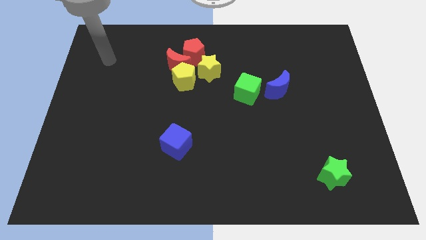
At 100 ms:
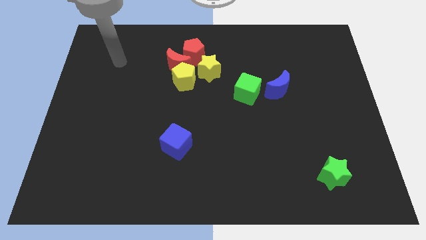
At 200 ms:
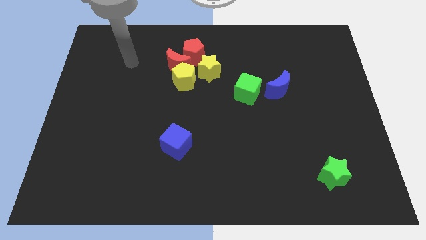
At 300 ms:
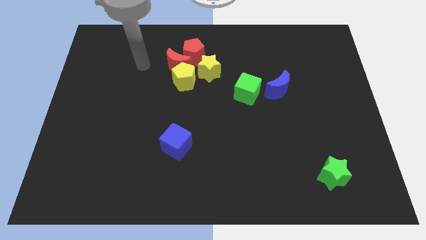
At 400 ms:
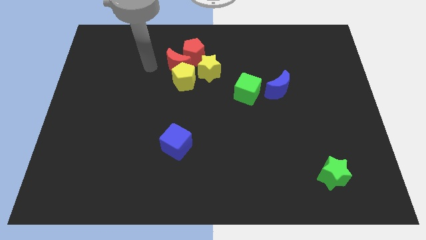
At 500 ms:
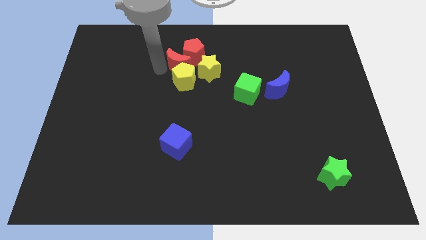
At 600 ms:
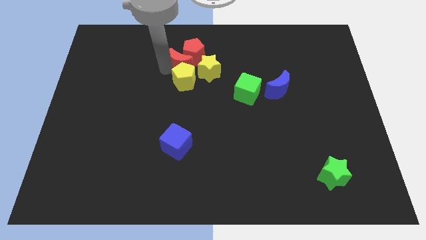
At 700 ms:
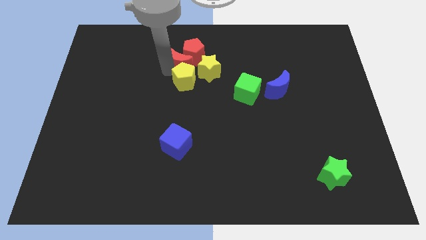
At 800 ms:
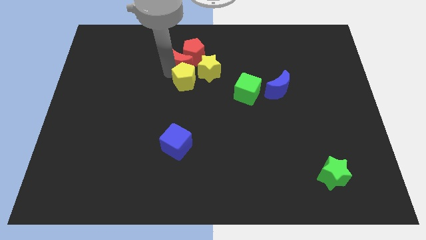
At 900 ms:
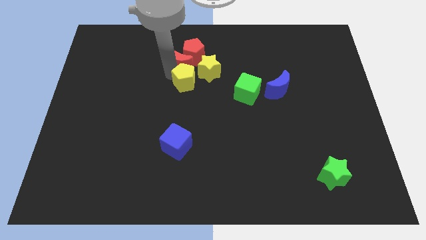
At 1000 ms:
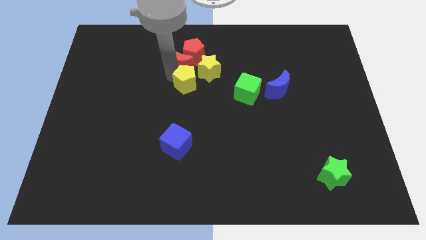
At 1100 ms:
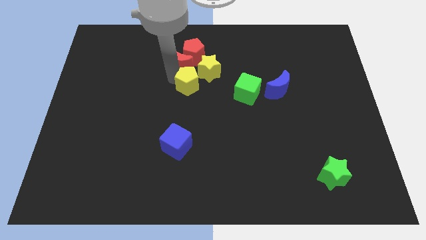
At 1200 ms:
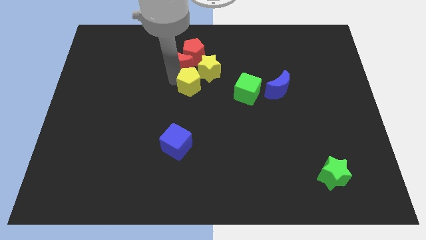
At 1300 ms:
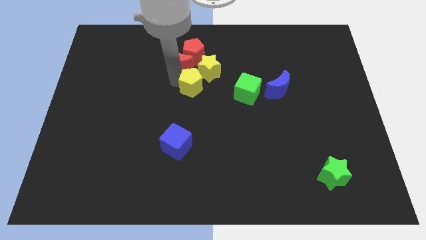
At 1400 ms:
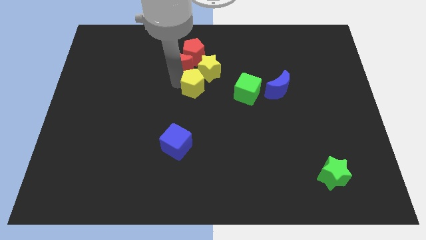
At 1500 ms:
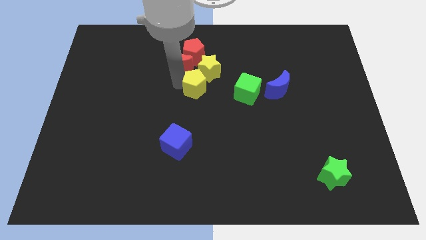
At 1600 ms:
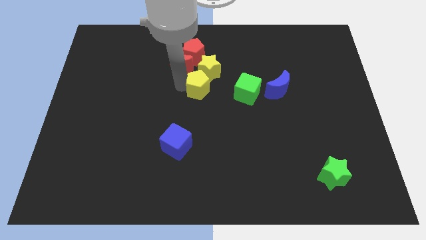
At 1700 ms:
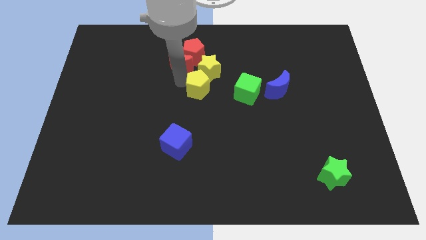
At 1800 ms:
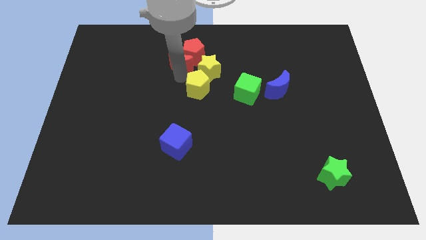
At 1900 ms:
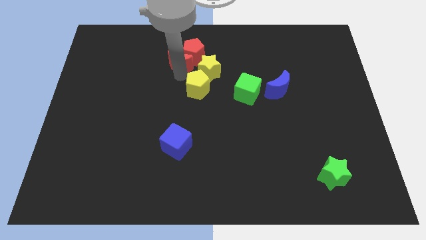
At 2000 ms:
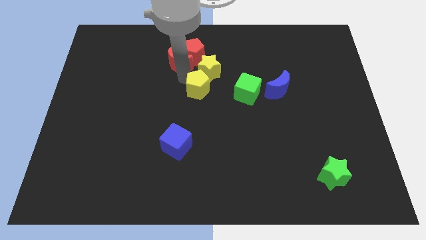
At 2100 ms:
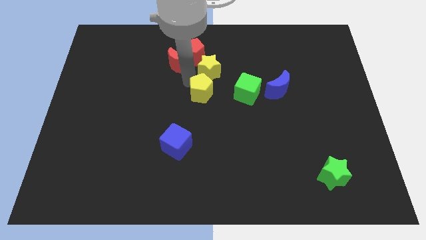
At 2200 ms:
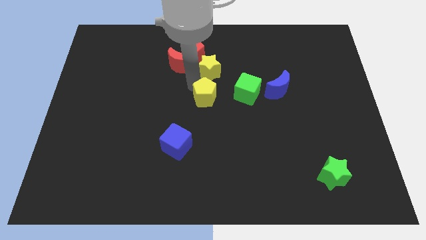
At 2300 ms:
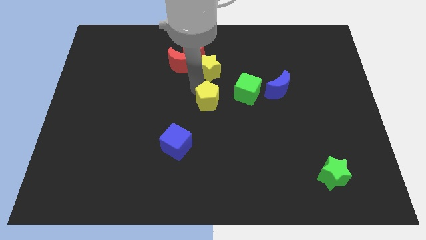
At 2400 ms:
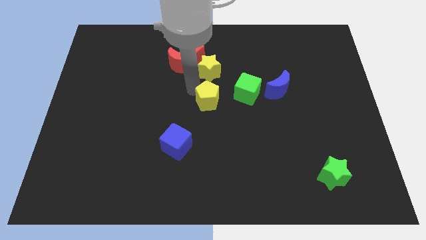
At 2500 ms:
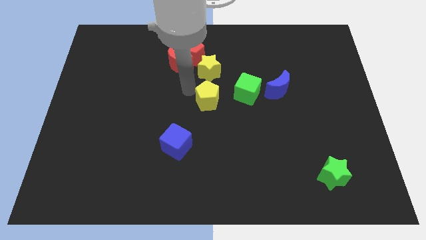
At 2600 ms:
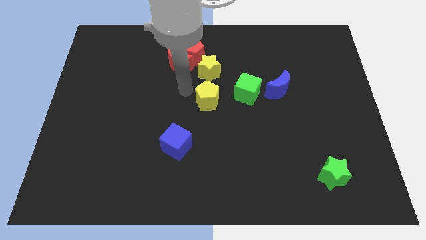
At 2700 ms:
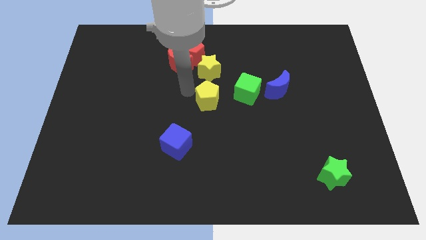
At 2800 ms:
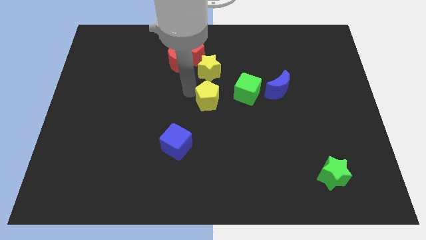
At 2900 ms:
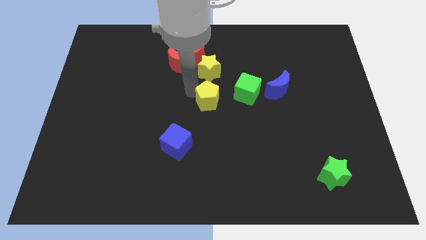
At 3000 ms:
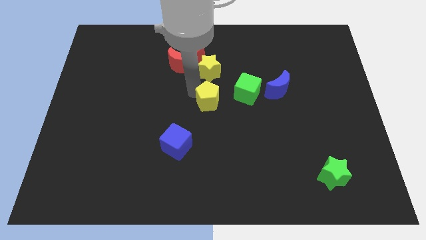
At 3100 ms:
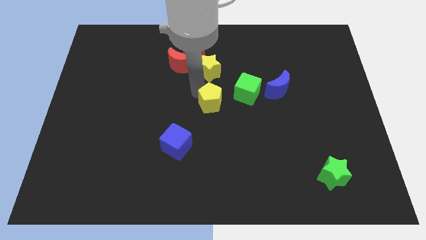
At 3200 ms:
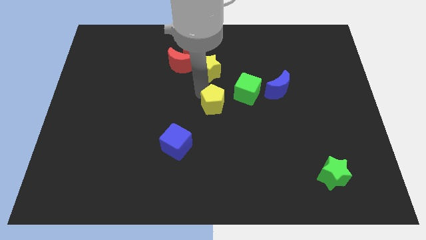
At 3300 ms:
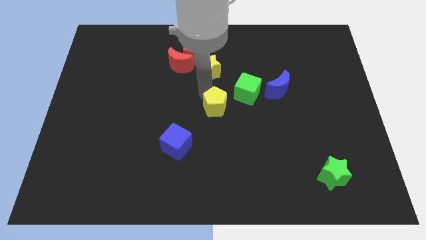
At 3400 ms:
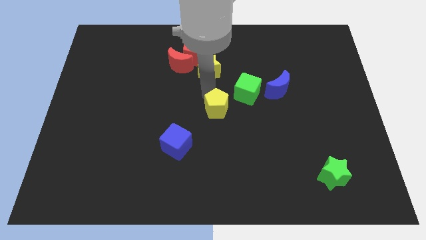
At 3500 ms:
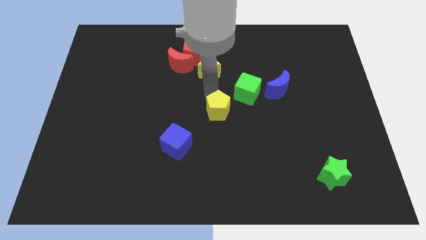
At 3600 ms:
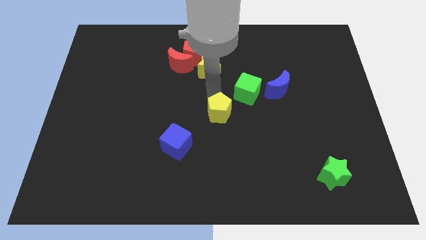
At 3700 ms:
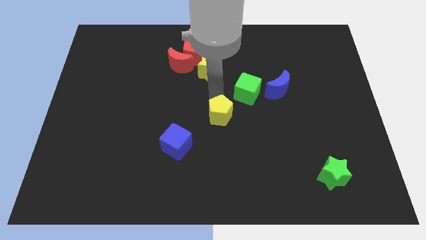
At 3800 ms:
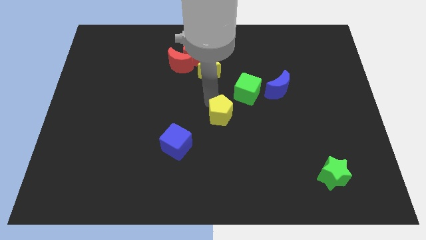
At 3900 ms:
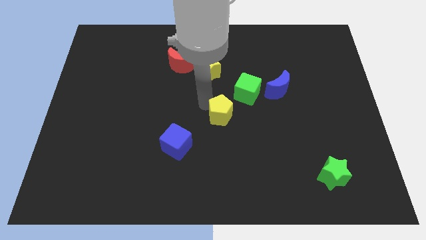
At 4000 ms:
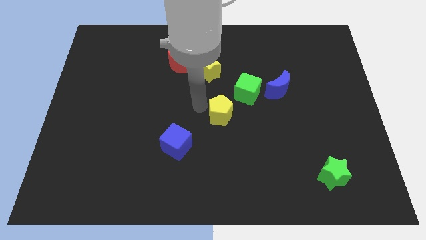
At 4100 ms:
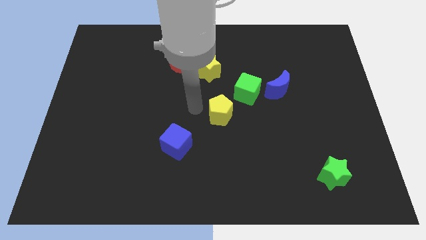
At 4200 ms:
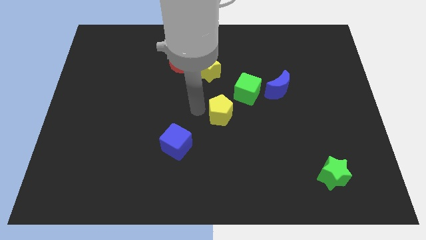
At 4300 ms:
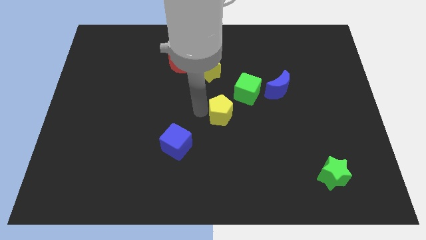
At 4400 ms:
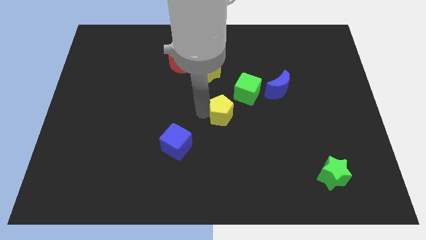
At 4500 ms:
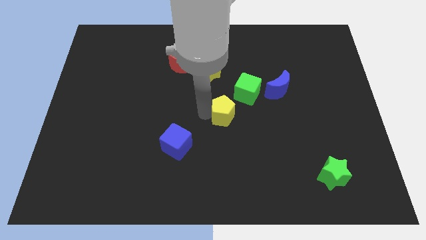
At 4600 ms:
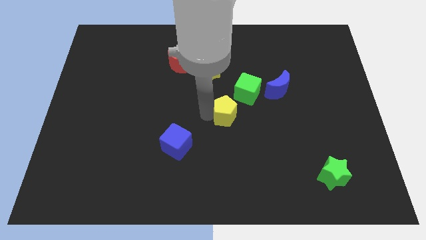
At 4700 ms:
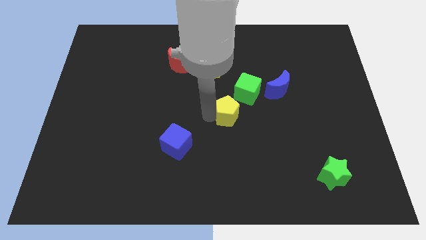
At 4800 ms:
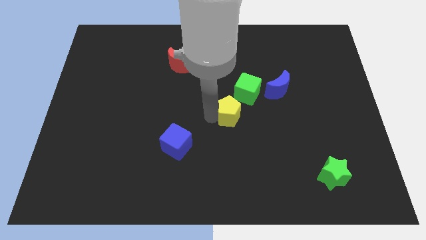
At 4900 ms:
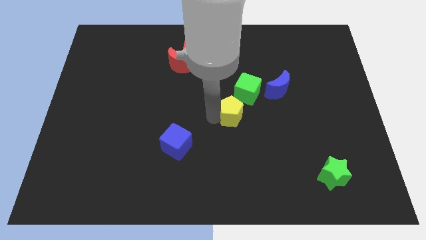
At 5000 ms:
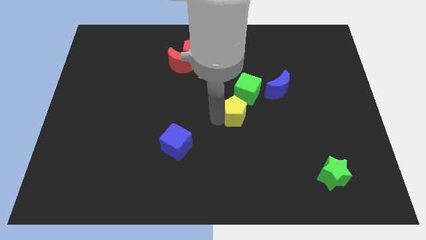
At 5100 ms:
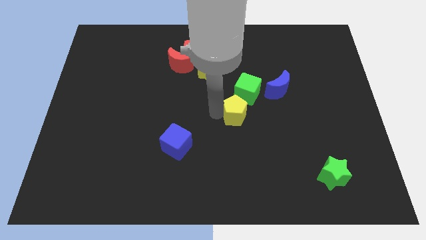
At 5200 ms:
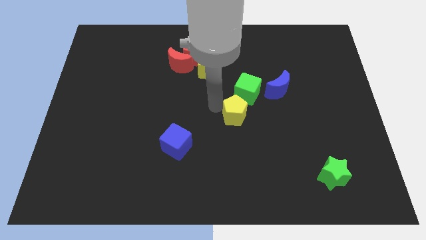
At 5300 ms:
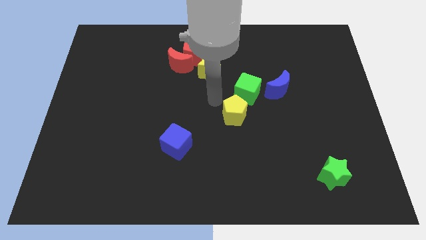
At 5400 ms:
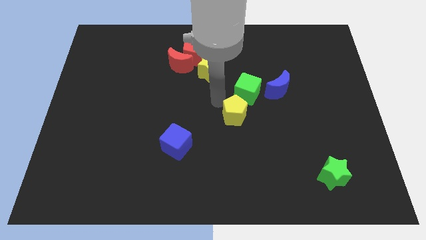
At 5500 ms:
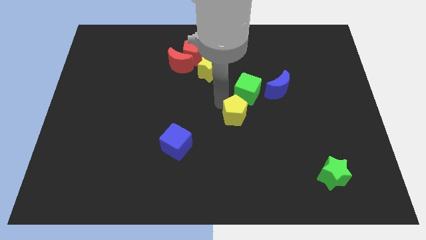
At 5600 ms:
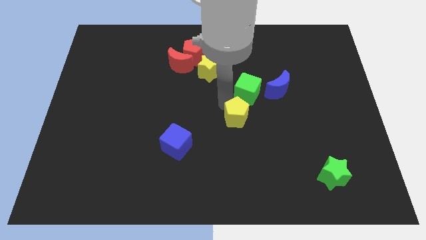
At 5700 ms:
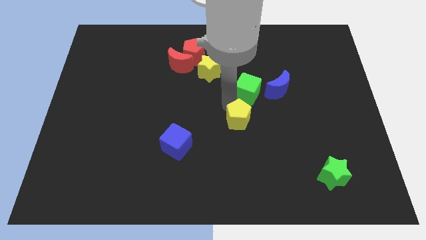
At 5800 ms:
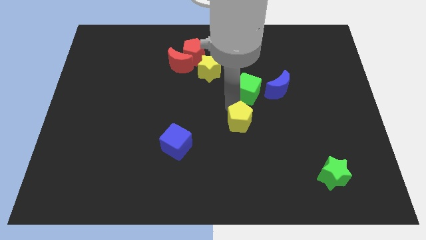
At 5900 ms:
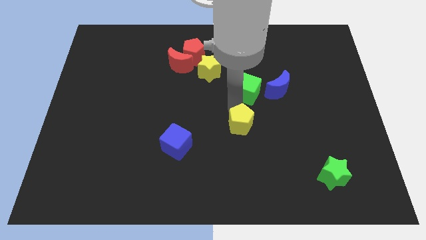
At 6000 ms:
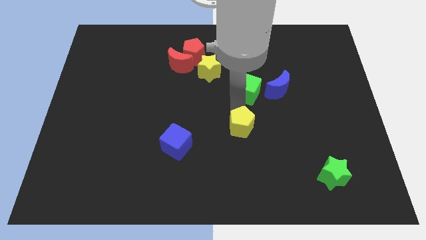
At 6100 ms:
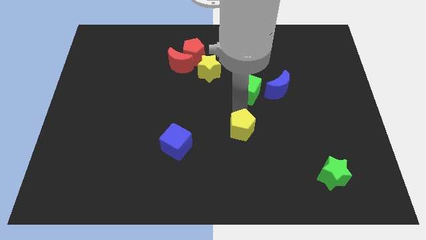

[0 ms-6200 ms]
slide the yellow pentagon down and then right

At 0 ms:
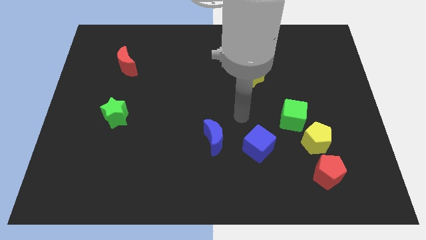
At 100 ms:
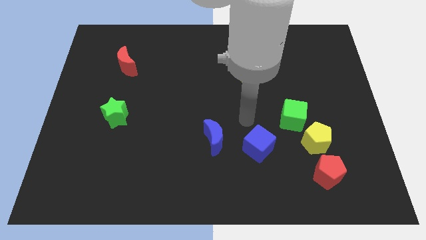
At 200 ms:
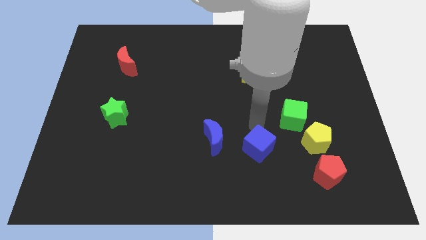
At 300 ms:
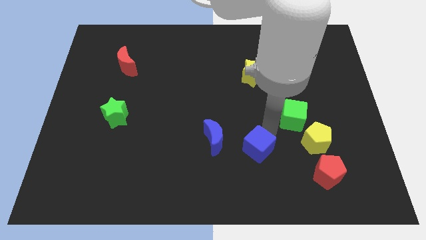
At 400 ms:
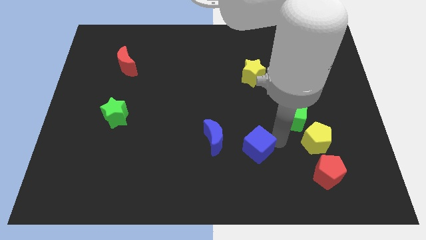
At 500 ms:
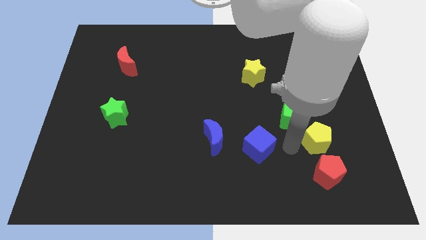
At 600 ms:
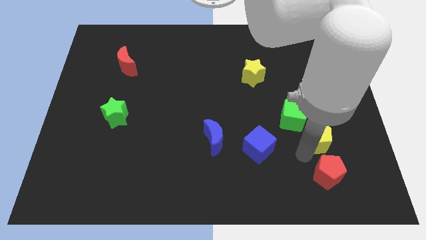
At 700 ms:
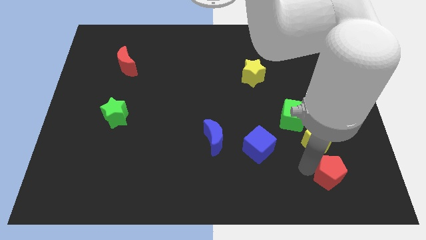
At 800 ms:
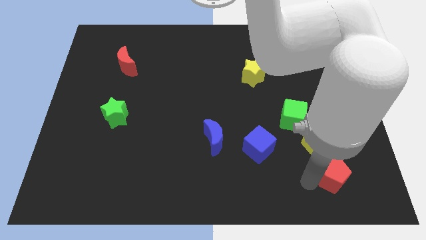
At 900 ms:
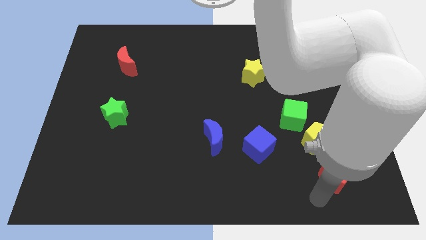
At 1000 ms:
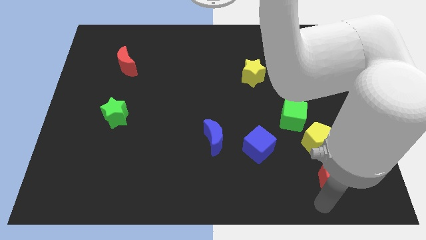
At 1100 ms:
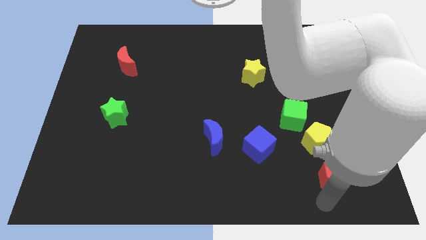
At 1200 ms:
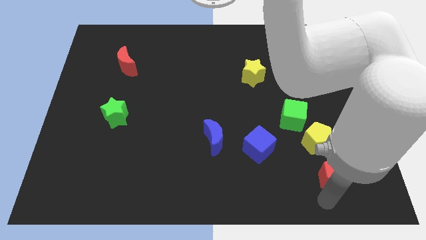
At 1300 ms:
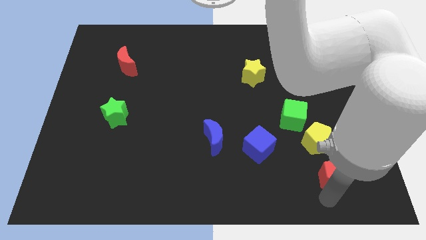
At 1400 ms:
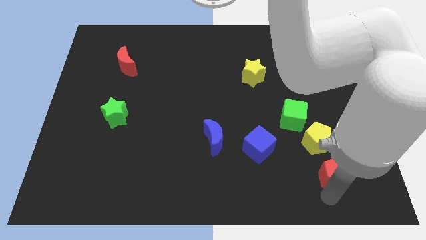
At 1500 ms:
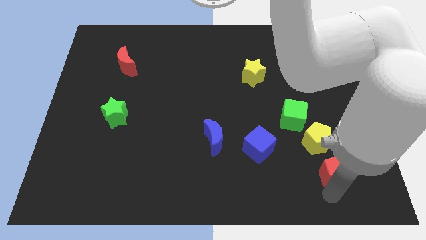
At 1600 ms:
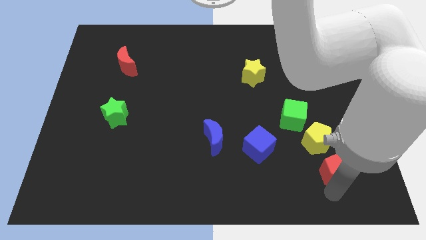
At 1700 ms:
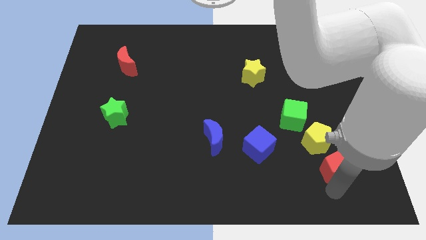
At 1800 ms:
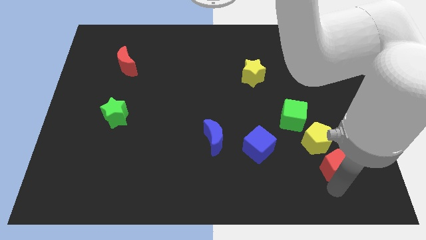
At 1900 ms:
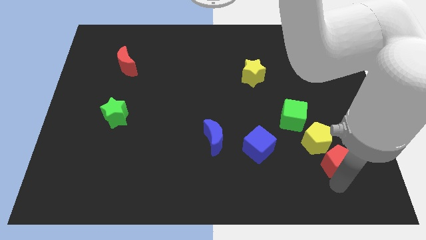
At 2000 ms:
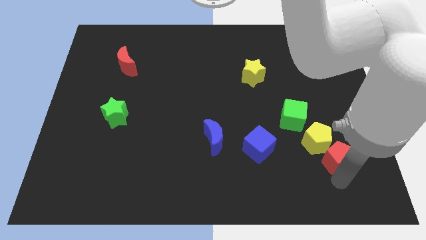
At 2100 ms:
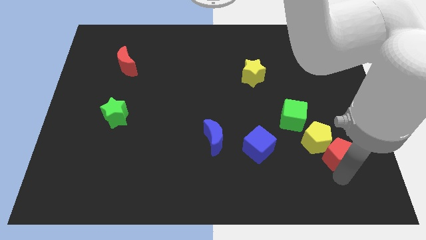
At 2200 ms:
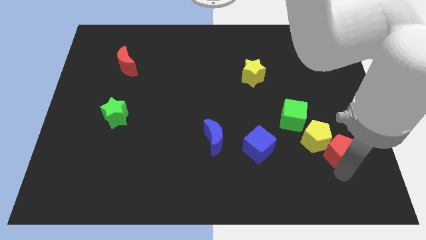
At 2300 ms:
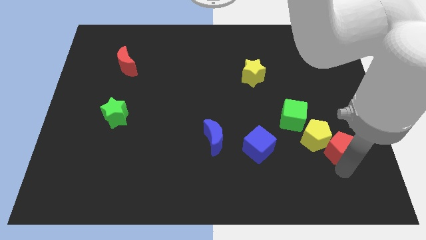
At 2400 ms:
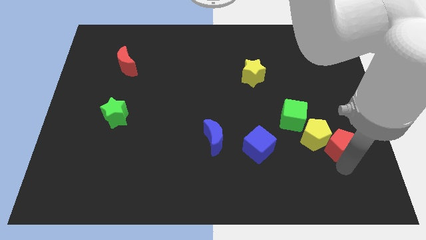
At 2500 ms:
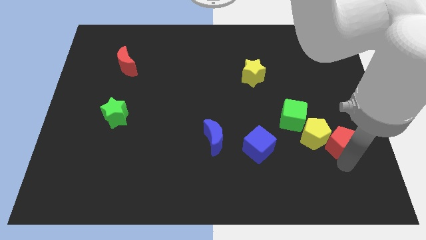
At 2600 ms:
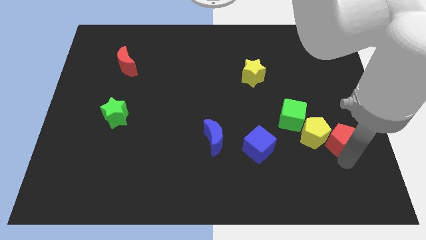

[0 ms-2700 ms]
slightly push the red pentagon upwards
